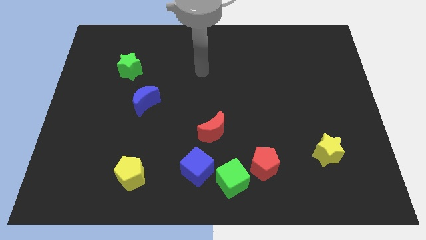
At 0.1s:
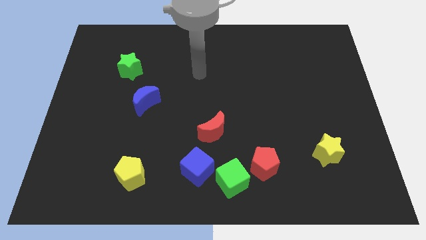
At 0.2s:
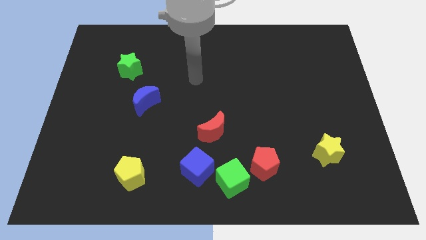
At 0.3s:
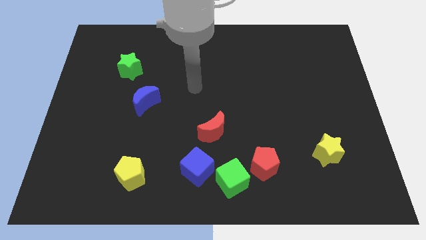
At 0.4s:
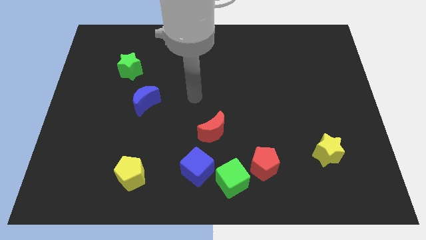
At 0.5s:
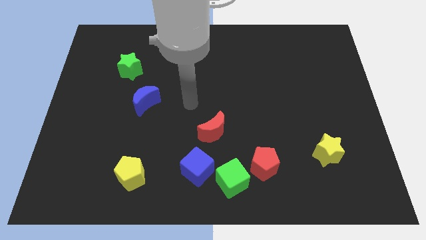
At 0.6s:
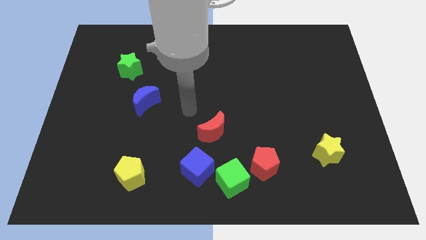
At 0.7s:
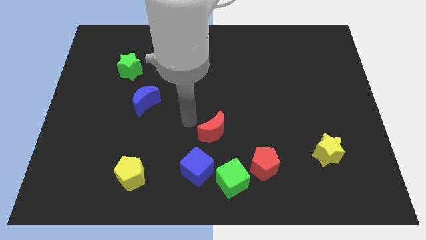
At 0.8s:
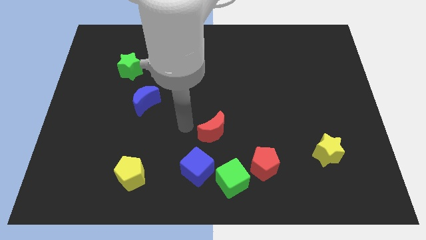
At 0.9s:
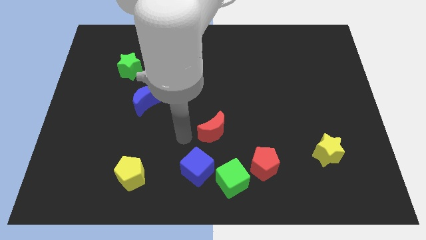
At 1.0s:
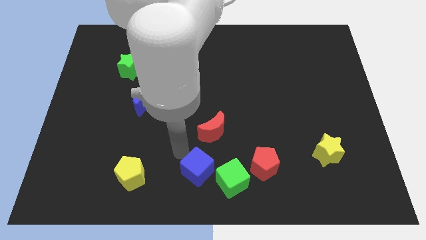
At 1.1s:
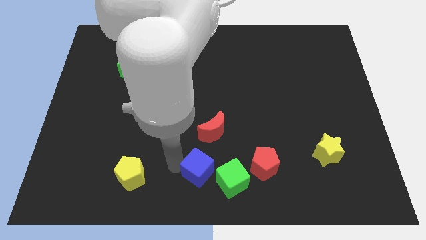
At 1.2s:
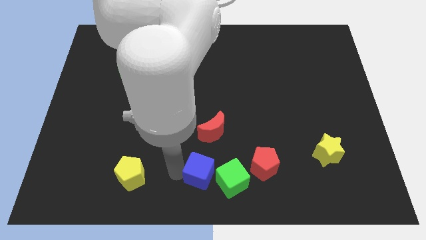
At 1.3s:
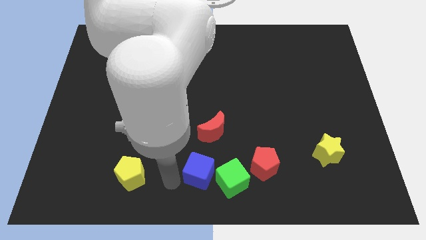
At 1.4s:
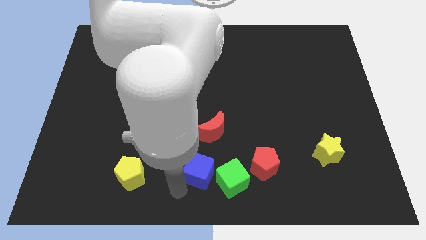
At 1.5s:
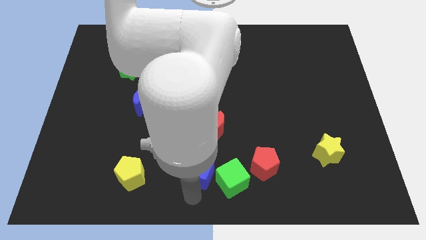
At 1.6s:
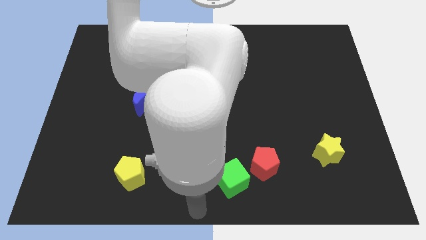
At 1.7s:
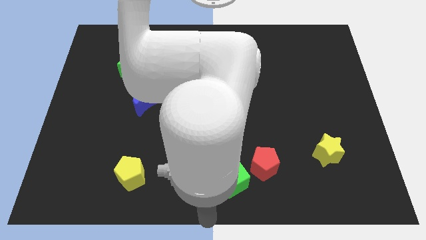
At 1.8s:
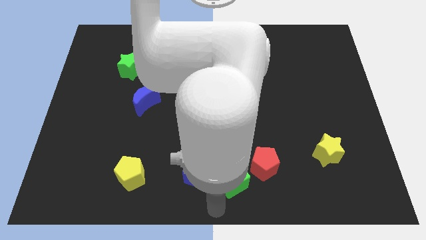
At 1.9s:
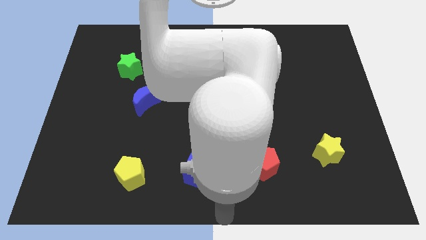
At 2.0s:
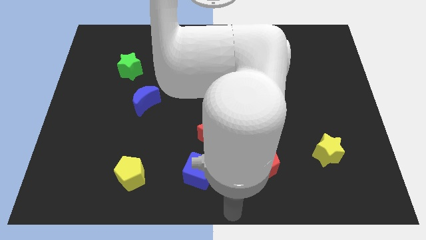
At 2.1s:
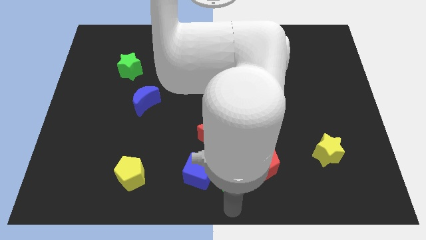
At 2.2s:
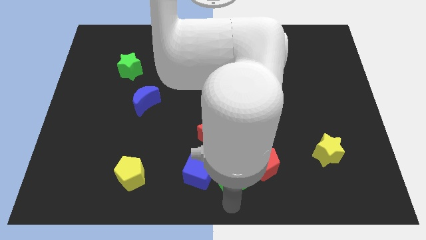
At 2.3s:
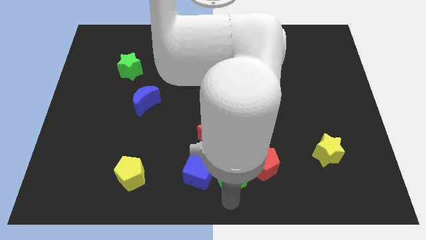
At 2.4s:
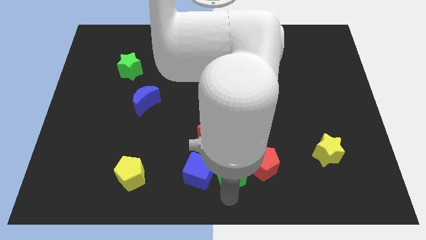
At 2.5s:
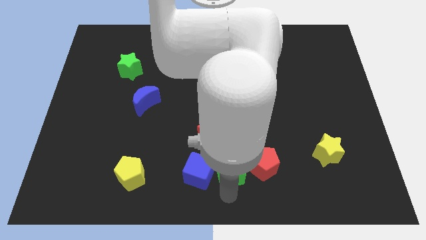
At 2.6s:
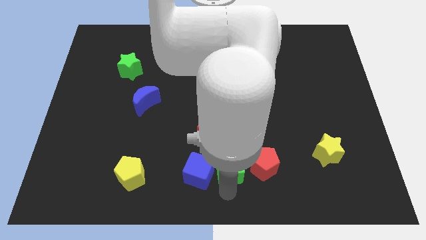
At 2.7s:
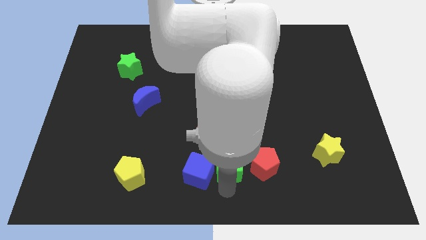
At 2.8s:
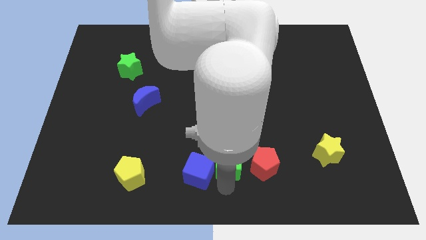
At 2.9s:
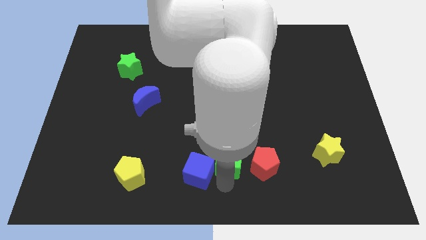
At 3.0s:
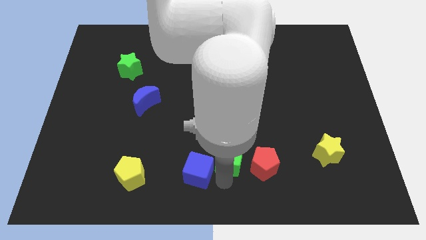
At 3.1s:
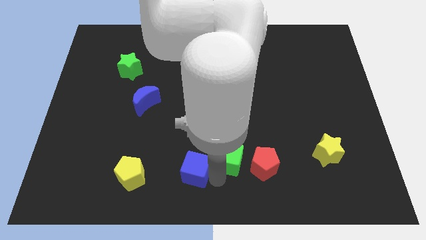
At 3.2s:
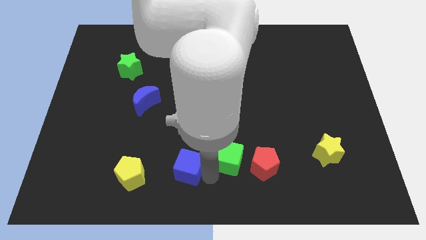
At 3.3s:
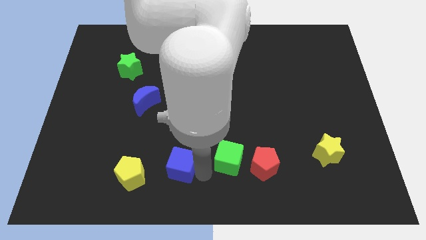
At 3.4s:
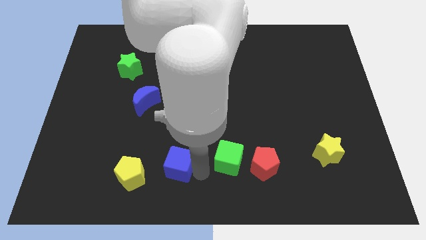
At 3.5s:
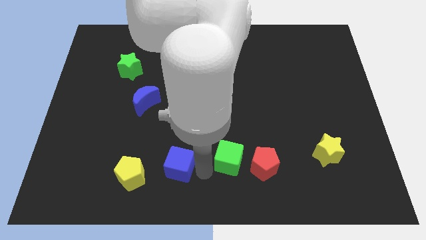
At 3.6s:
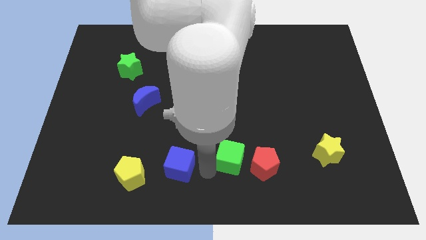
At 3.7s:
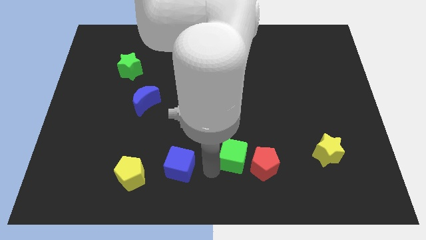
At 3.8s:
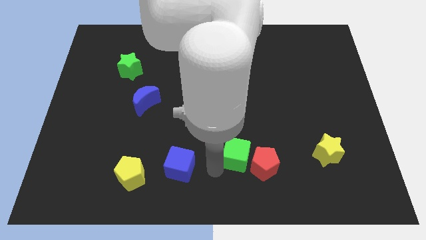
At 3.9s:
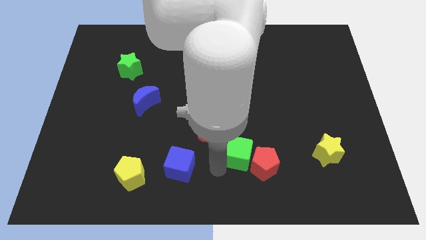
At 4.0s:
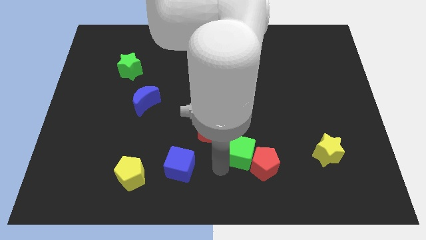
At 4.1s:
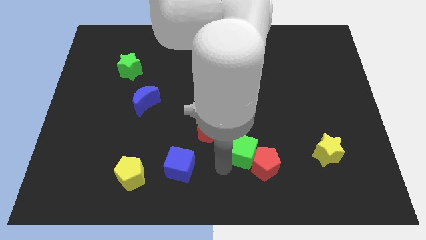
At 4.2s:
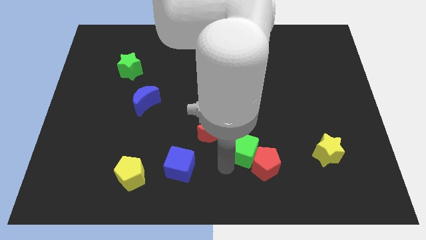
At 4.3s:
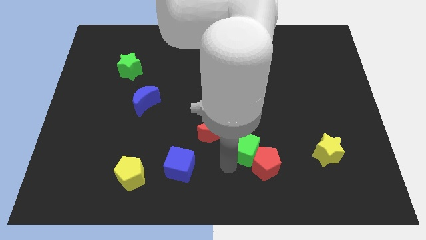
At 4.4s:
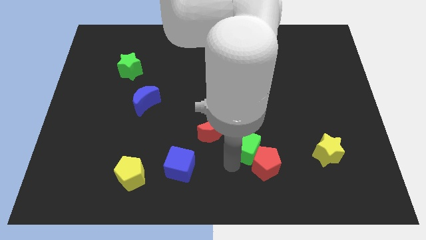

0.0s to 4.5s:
push the green cube upwards and right a little

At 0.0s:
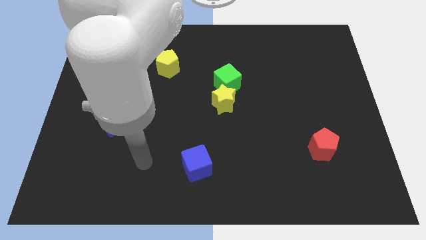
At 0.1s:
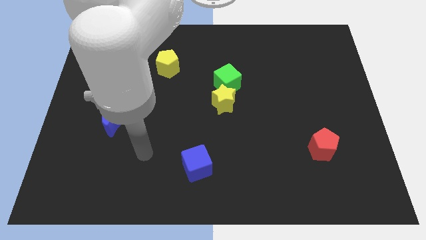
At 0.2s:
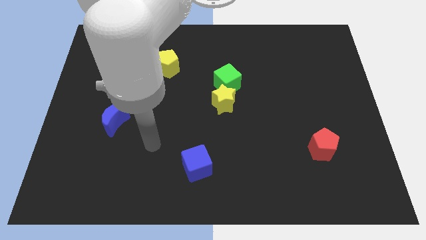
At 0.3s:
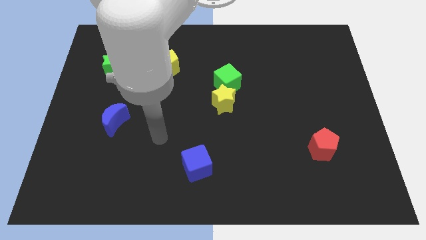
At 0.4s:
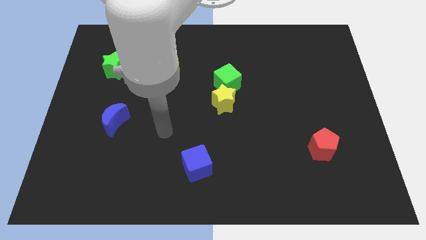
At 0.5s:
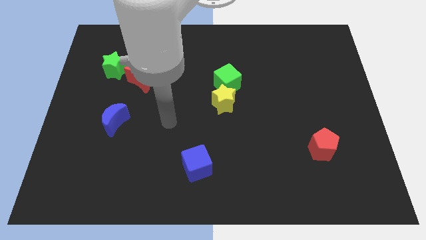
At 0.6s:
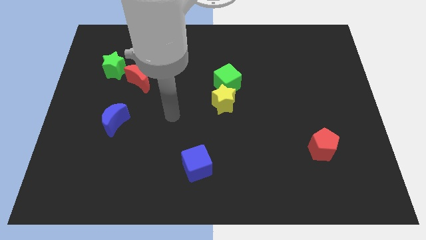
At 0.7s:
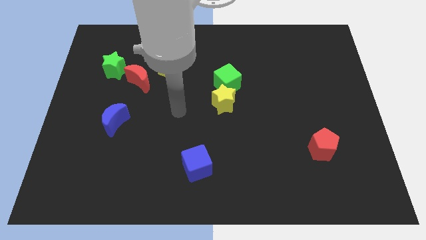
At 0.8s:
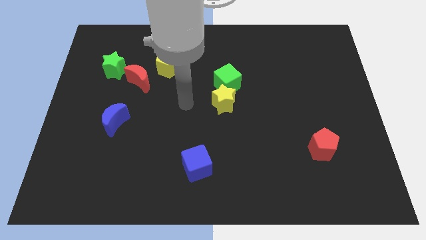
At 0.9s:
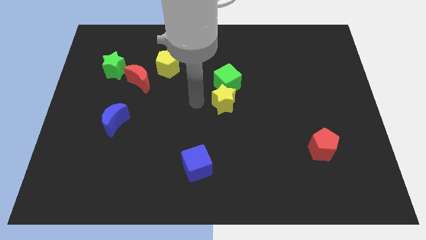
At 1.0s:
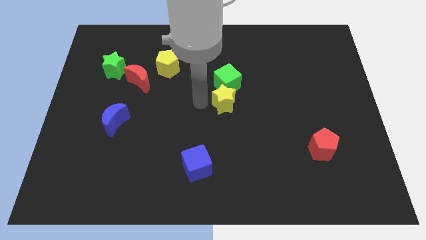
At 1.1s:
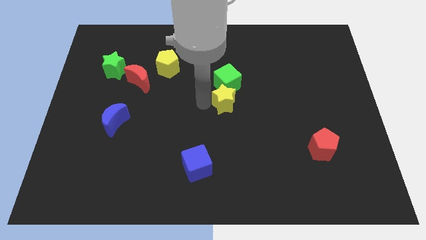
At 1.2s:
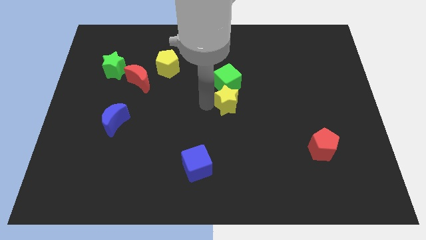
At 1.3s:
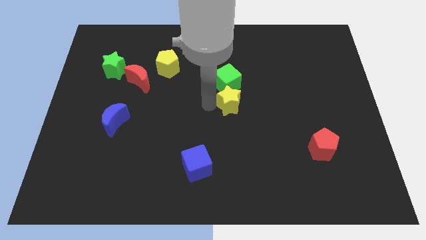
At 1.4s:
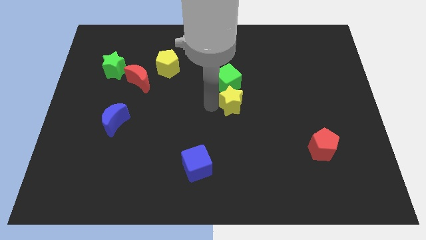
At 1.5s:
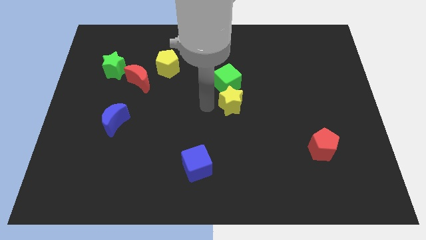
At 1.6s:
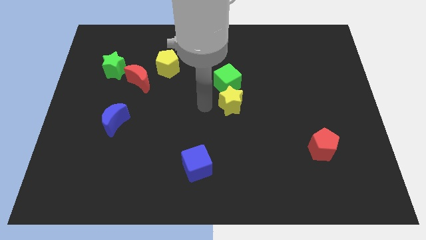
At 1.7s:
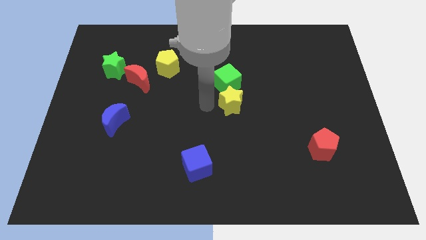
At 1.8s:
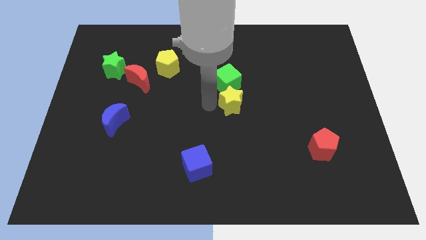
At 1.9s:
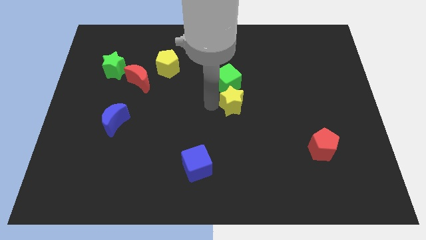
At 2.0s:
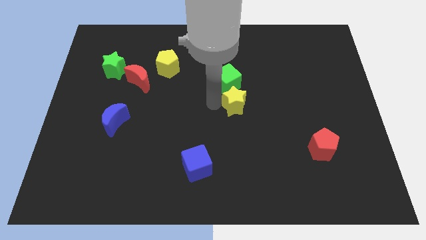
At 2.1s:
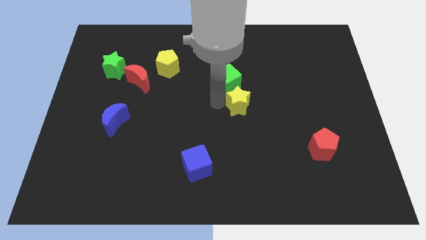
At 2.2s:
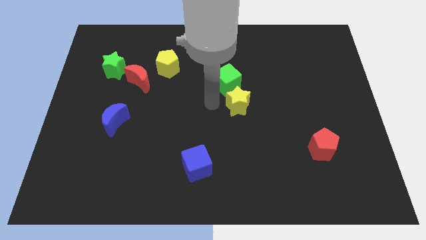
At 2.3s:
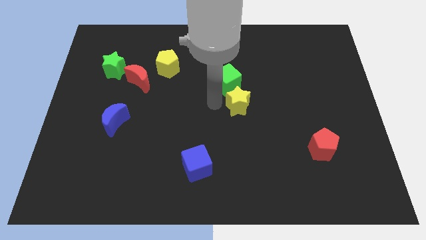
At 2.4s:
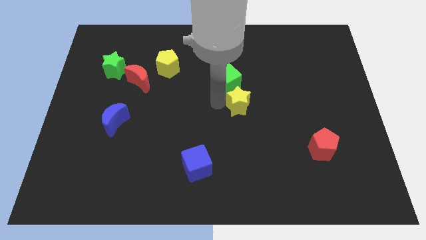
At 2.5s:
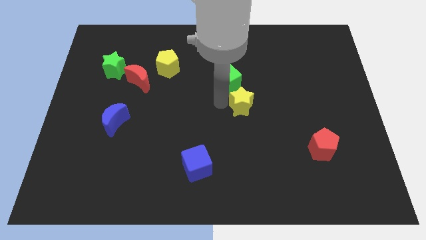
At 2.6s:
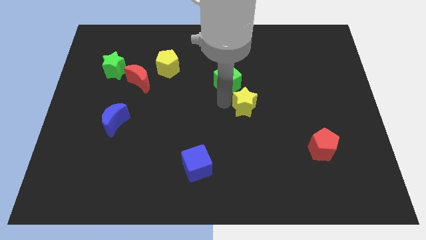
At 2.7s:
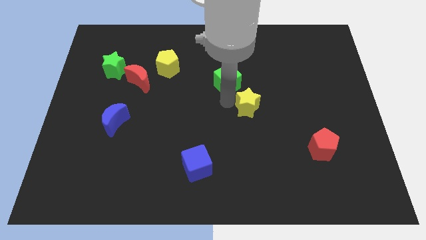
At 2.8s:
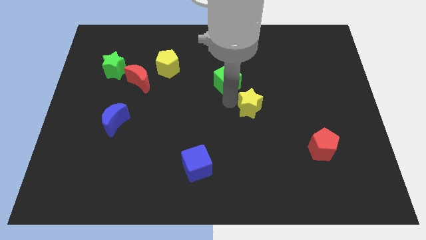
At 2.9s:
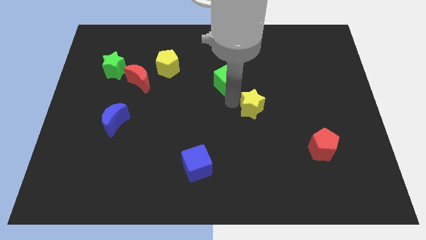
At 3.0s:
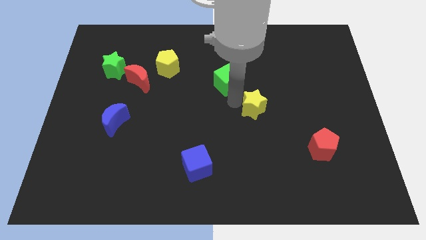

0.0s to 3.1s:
slide the yellow star right a little

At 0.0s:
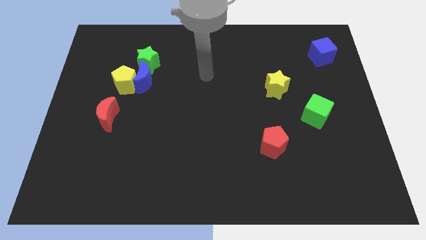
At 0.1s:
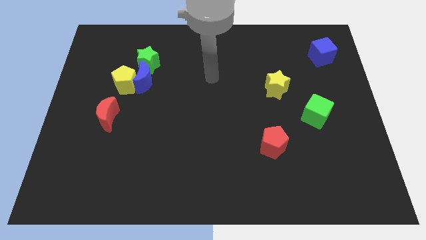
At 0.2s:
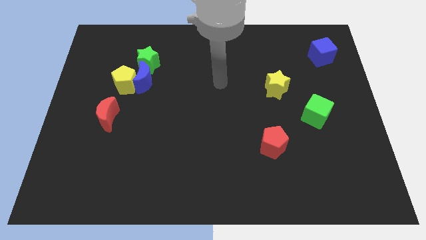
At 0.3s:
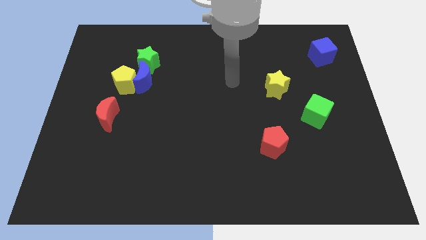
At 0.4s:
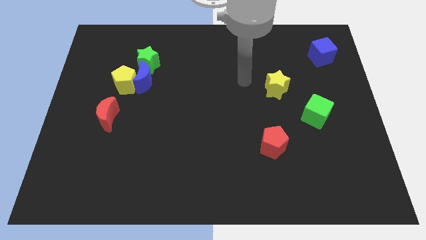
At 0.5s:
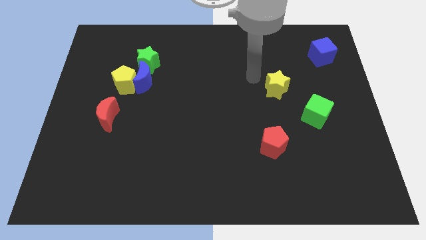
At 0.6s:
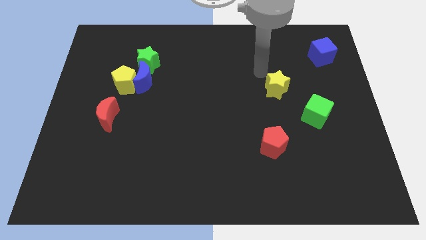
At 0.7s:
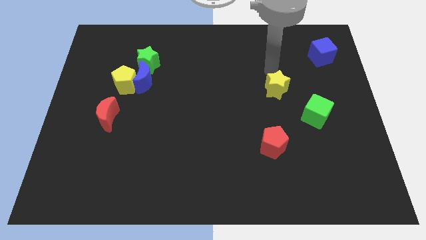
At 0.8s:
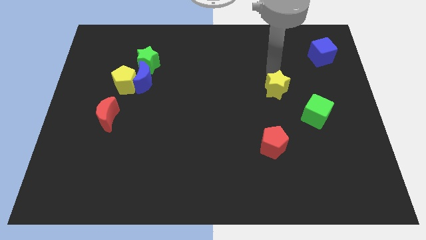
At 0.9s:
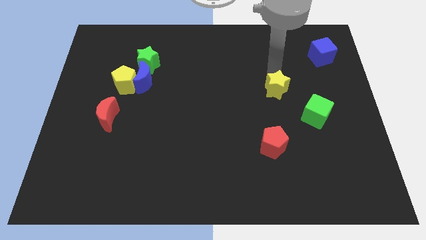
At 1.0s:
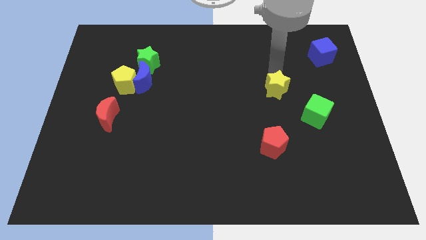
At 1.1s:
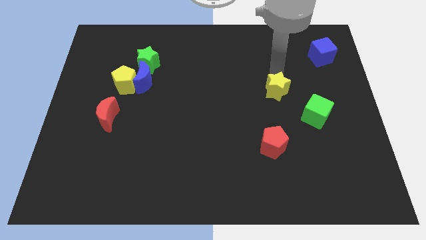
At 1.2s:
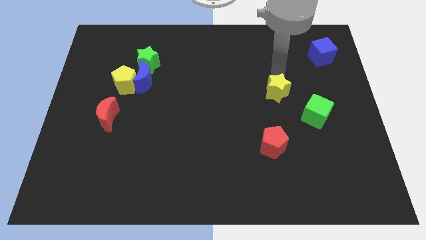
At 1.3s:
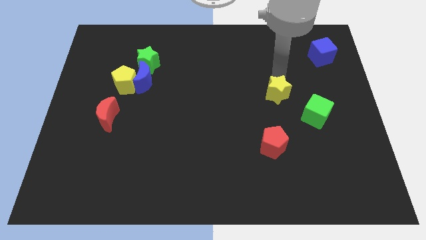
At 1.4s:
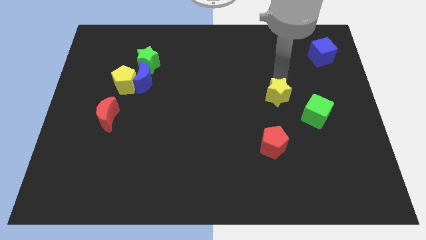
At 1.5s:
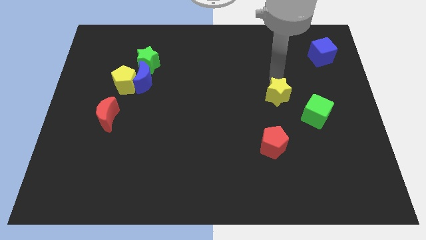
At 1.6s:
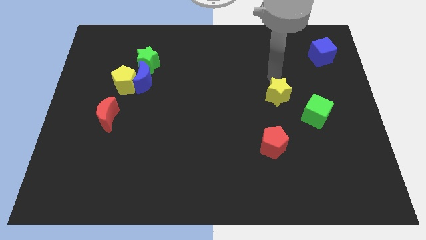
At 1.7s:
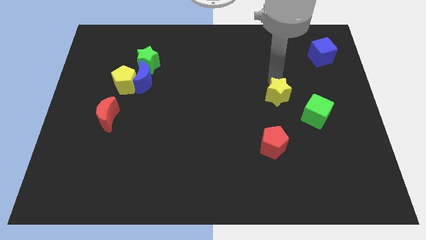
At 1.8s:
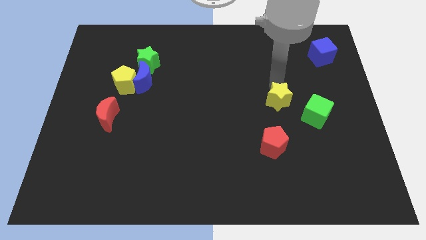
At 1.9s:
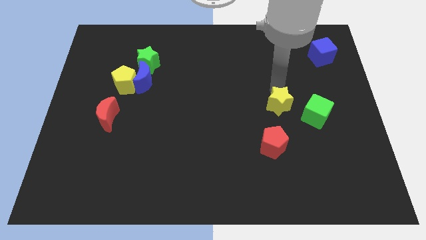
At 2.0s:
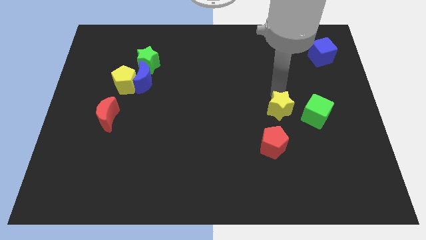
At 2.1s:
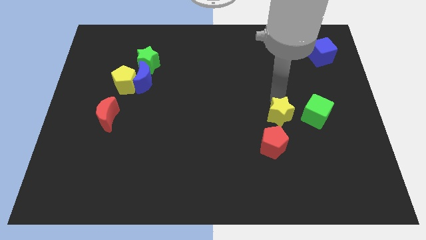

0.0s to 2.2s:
move the yellow star somewhat down
